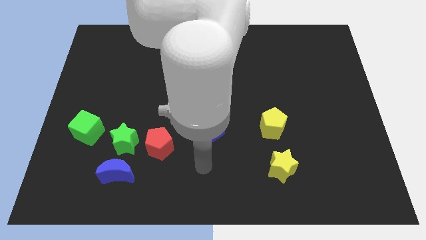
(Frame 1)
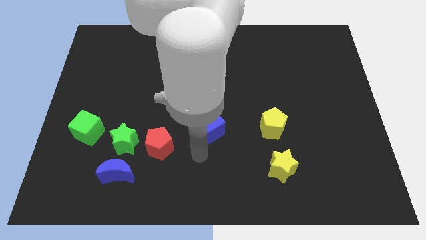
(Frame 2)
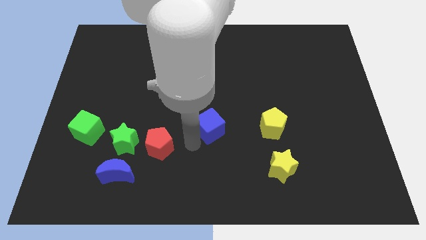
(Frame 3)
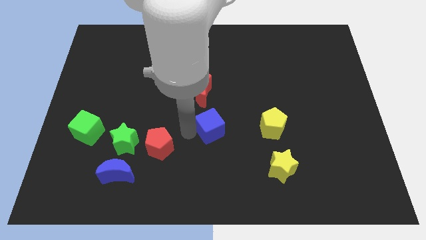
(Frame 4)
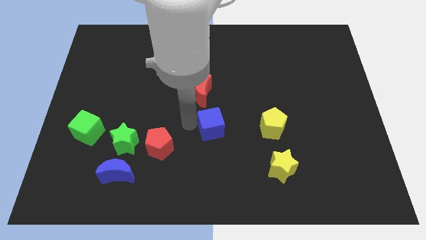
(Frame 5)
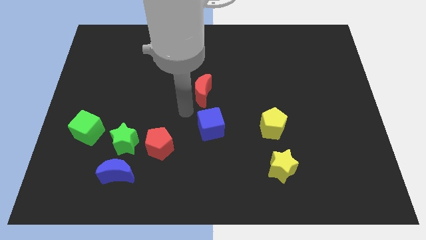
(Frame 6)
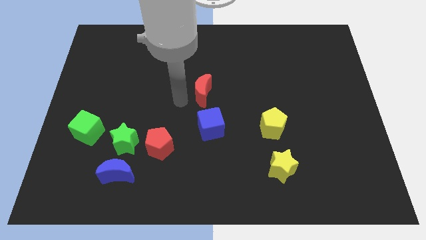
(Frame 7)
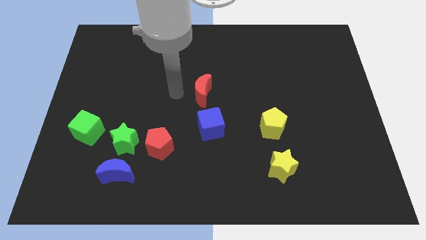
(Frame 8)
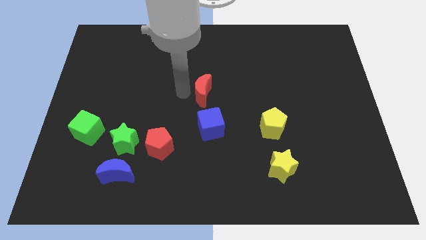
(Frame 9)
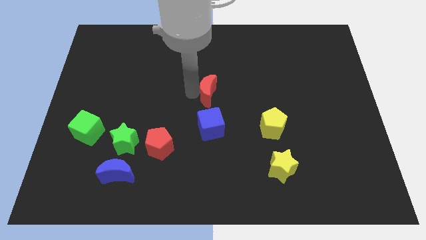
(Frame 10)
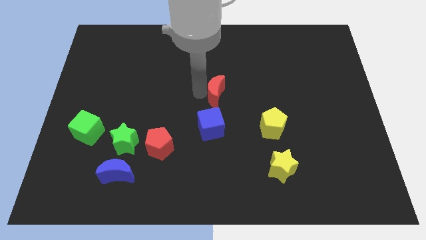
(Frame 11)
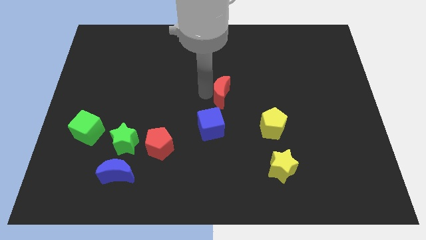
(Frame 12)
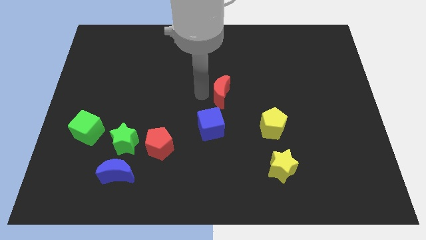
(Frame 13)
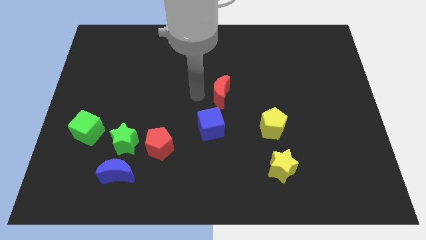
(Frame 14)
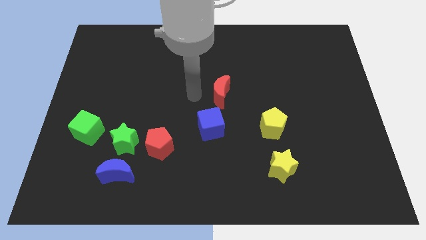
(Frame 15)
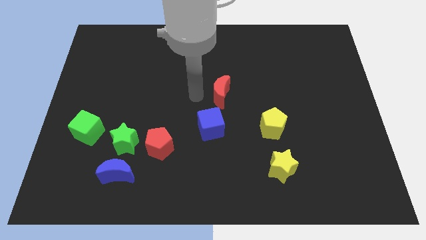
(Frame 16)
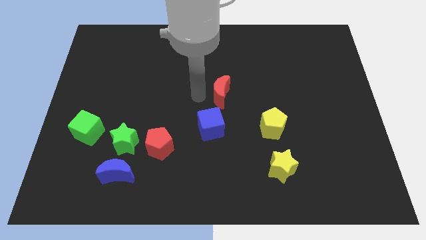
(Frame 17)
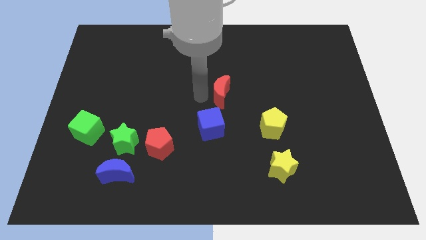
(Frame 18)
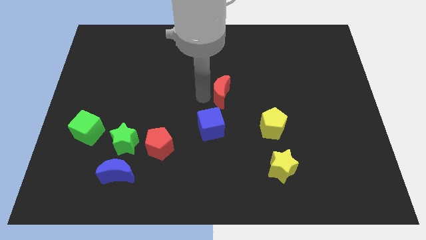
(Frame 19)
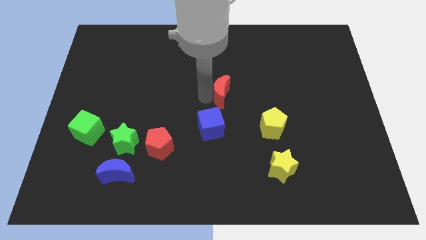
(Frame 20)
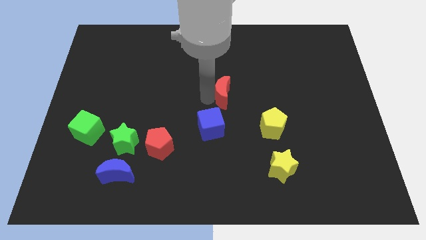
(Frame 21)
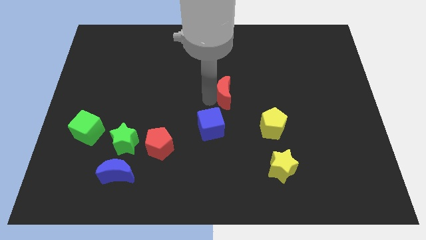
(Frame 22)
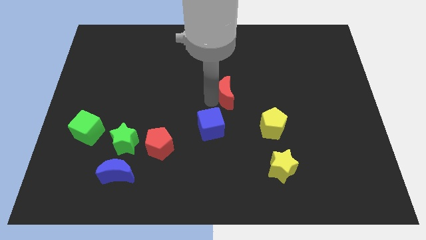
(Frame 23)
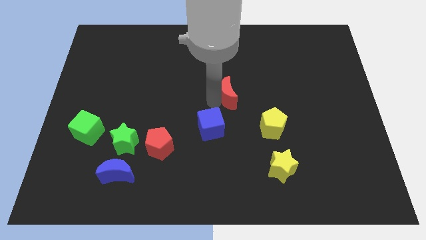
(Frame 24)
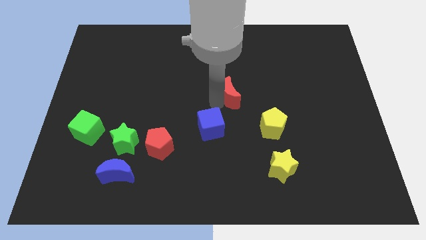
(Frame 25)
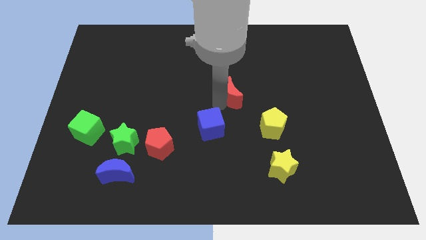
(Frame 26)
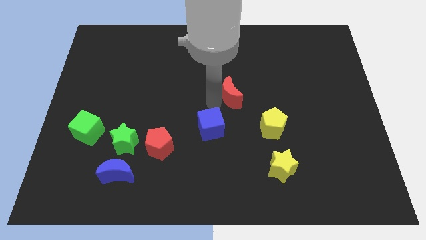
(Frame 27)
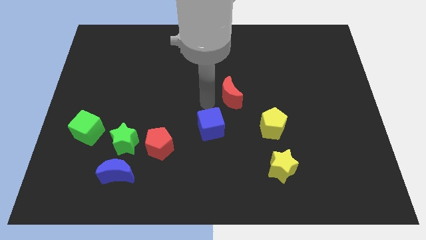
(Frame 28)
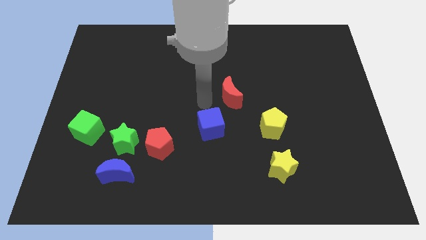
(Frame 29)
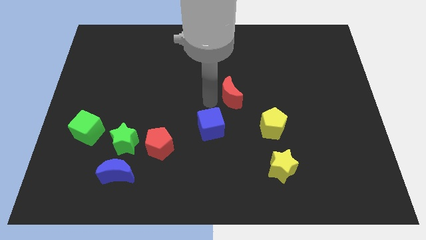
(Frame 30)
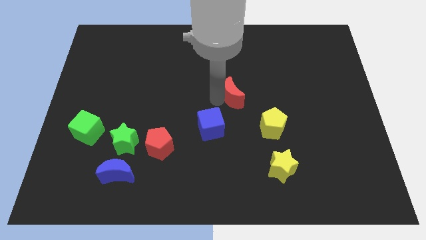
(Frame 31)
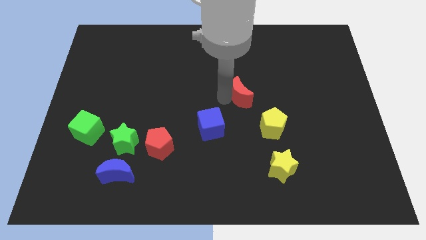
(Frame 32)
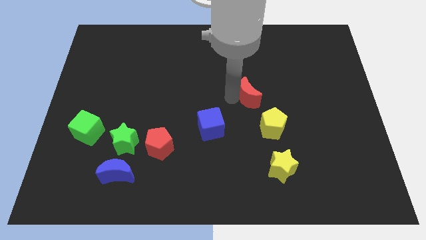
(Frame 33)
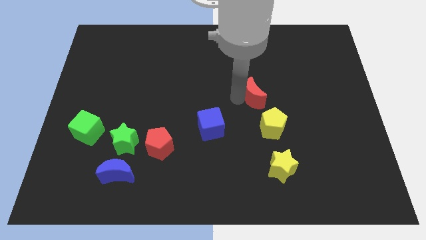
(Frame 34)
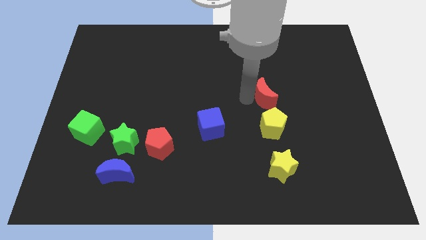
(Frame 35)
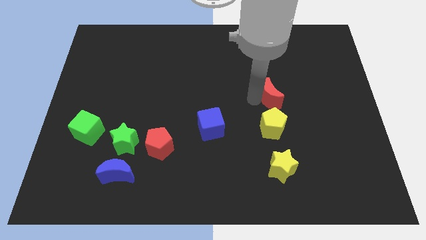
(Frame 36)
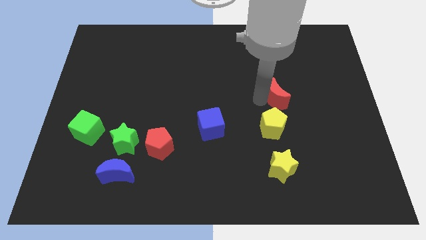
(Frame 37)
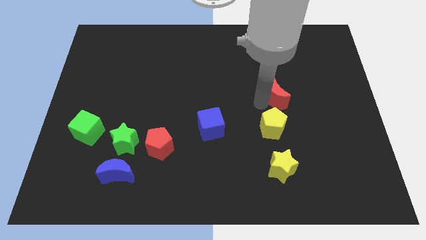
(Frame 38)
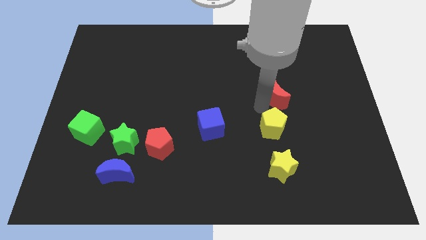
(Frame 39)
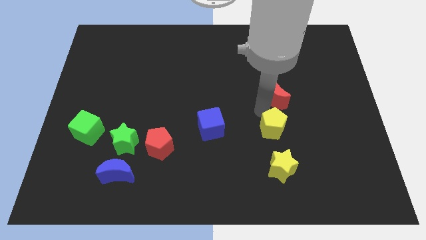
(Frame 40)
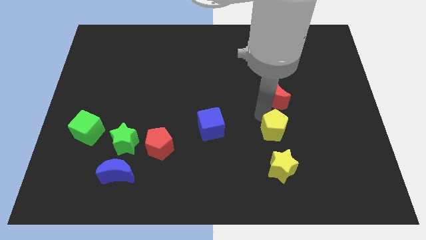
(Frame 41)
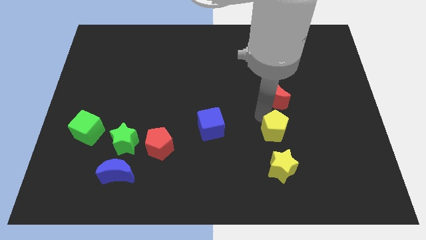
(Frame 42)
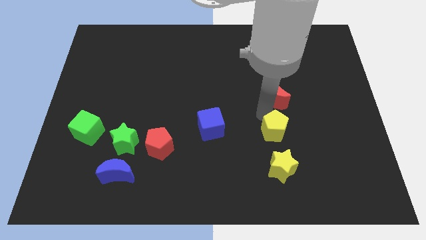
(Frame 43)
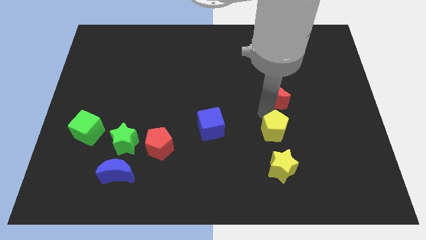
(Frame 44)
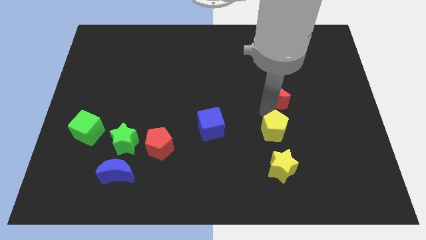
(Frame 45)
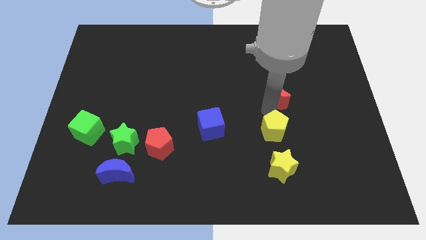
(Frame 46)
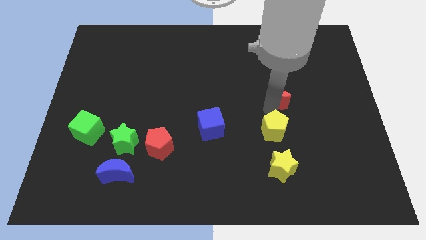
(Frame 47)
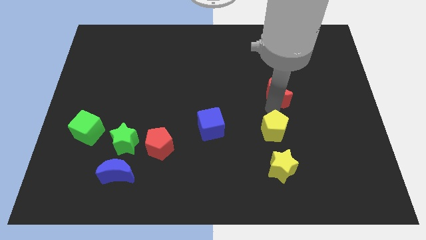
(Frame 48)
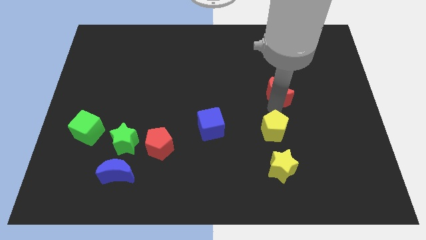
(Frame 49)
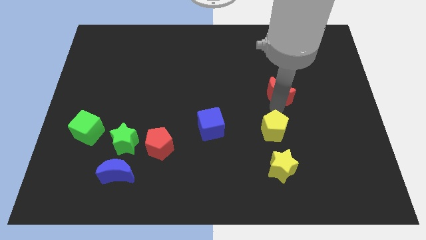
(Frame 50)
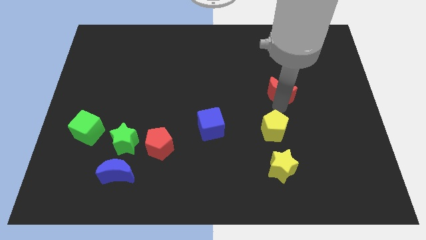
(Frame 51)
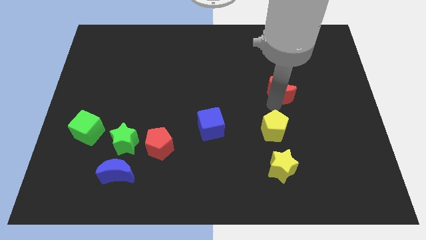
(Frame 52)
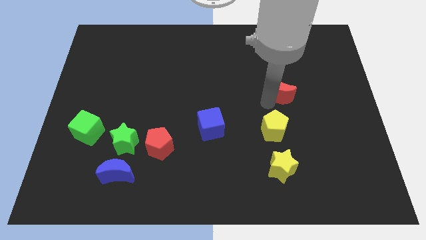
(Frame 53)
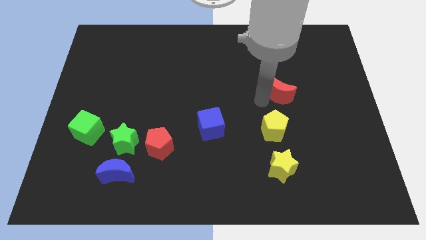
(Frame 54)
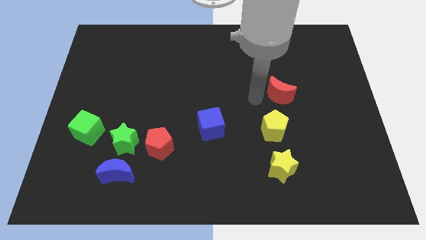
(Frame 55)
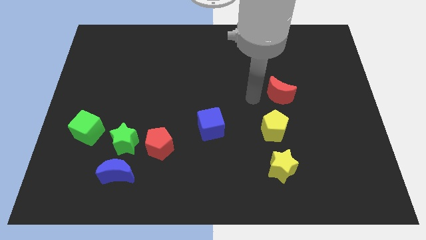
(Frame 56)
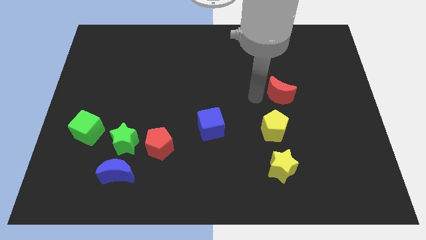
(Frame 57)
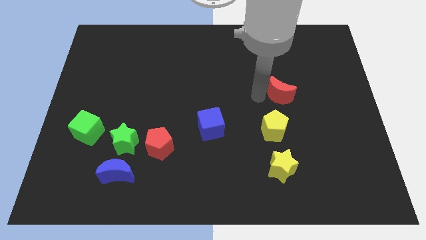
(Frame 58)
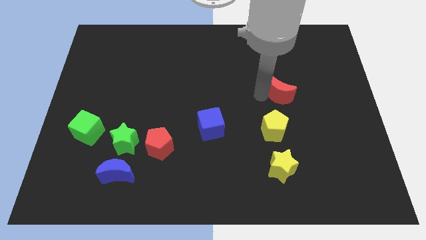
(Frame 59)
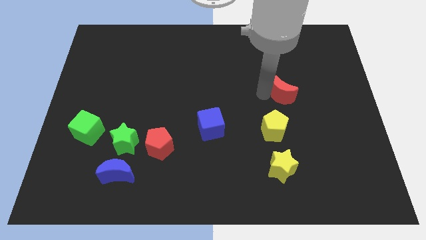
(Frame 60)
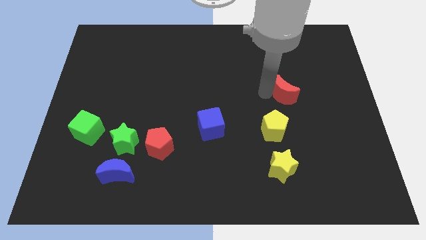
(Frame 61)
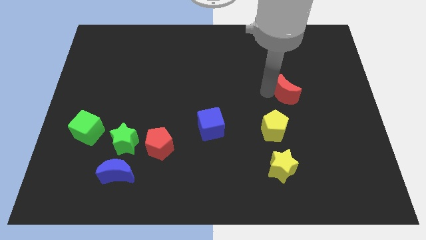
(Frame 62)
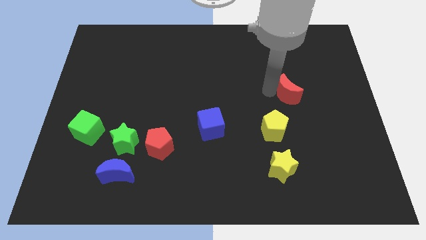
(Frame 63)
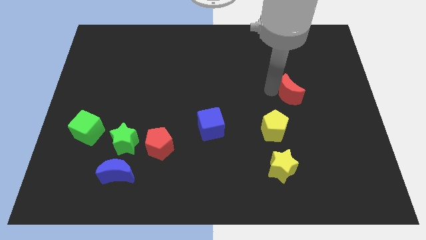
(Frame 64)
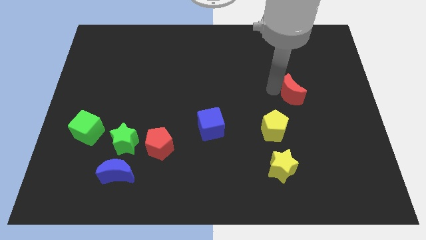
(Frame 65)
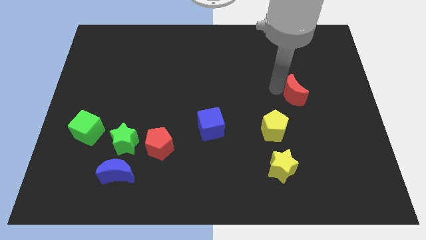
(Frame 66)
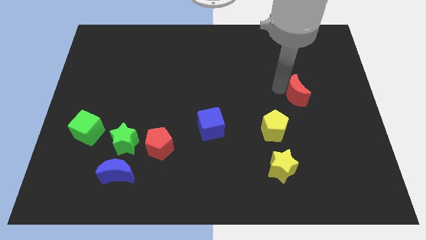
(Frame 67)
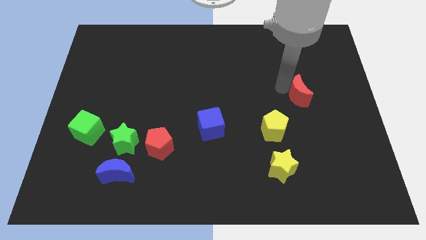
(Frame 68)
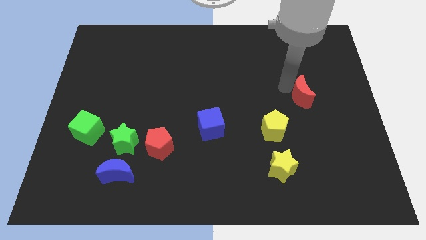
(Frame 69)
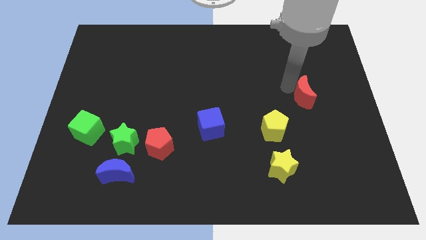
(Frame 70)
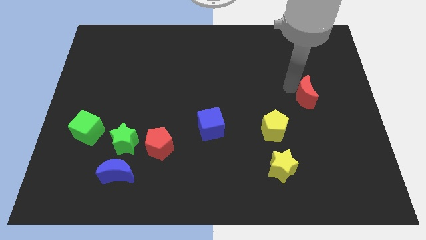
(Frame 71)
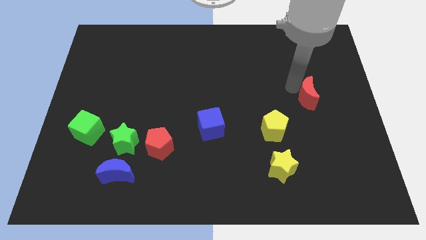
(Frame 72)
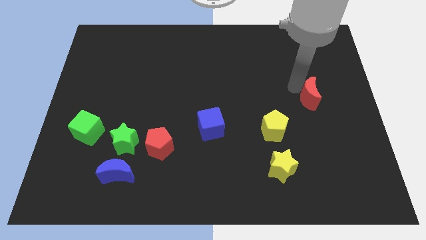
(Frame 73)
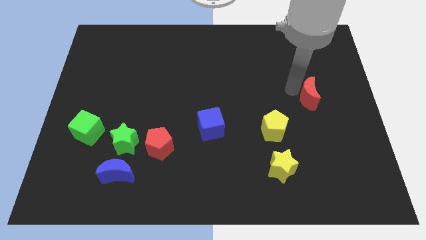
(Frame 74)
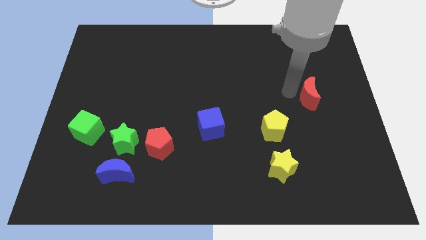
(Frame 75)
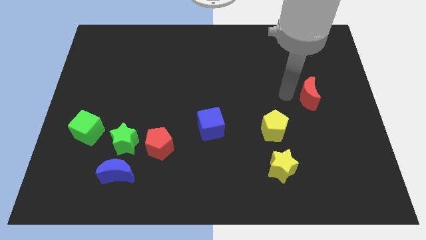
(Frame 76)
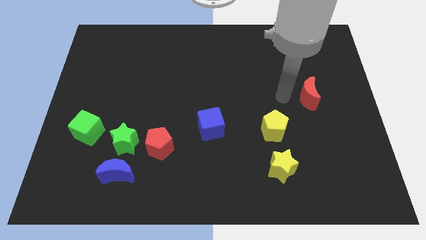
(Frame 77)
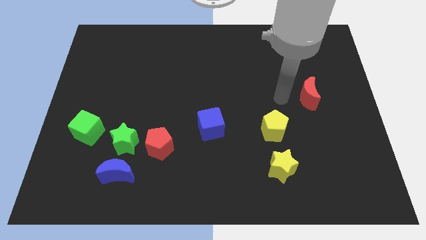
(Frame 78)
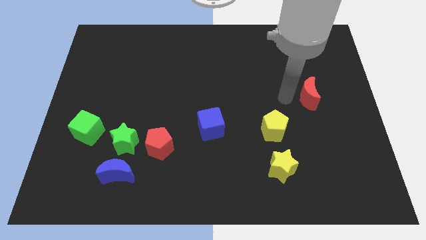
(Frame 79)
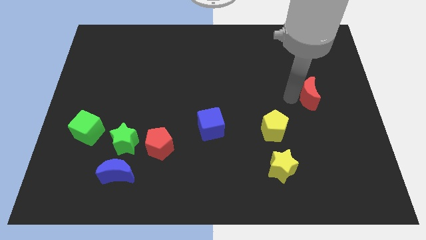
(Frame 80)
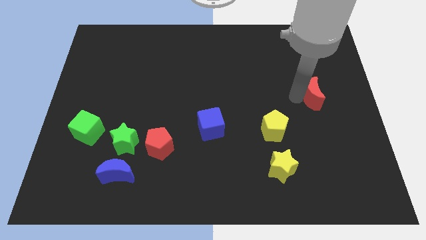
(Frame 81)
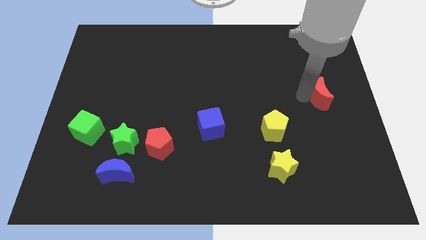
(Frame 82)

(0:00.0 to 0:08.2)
push the red moon to the right side
